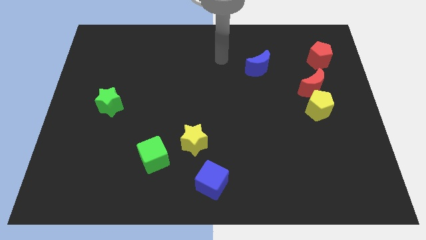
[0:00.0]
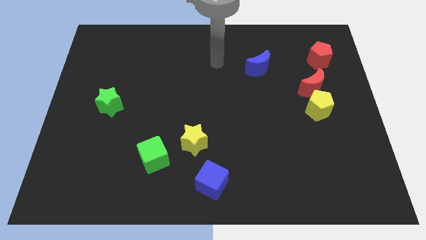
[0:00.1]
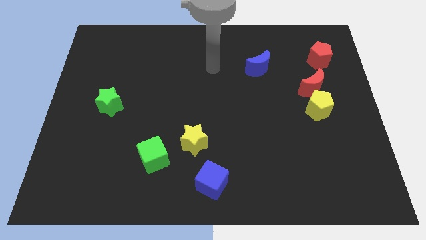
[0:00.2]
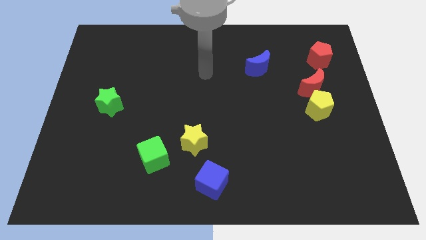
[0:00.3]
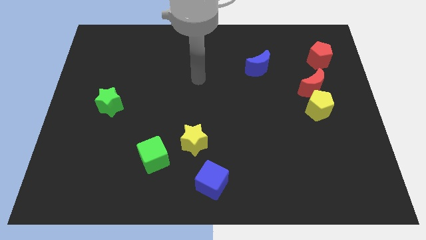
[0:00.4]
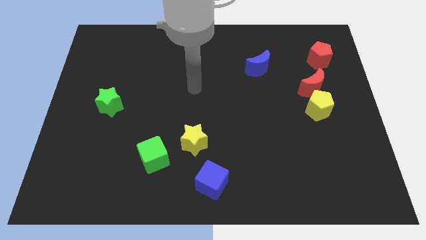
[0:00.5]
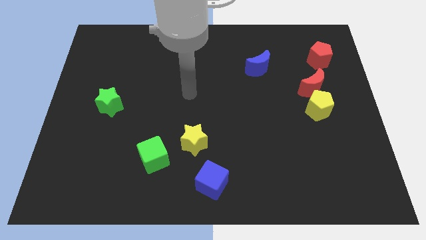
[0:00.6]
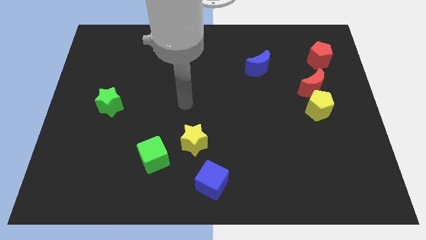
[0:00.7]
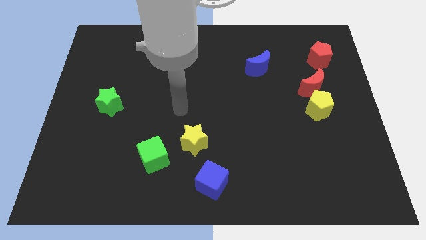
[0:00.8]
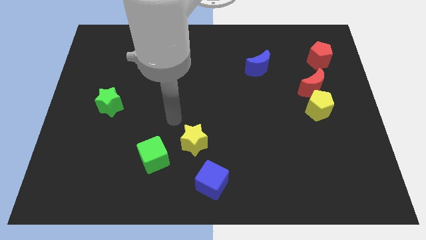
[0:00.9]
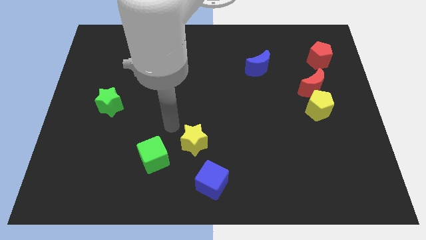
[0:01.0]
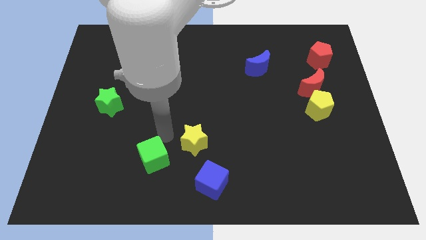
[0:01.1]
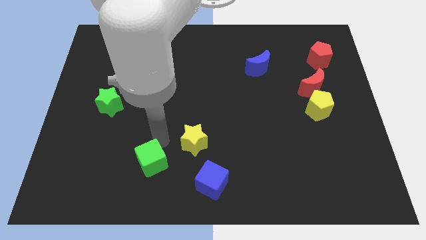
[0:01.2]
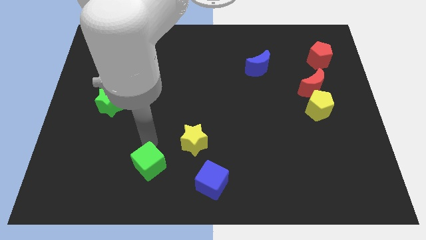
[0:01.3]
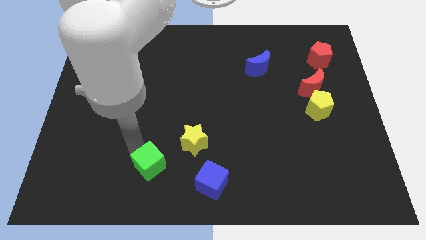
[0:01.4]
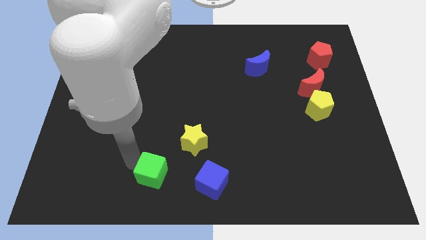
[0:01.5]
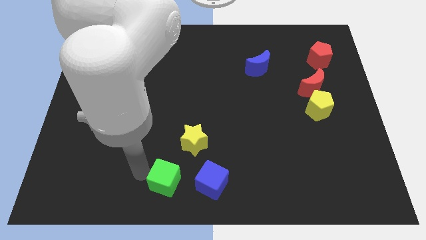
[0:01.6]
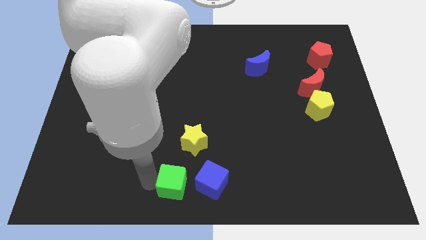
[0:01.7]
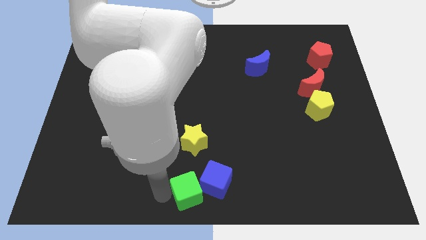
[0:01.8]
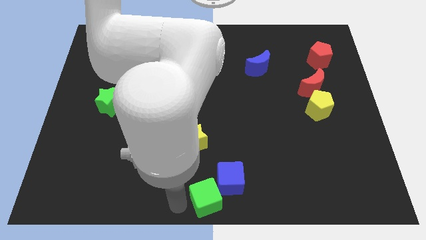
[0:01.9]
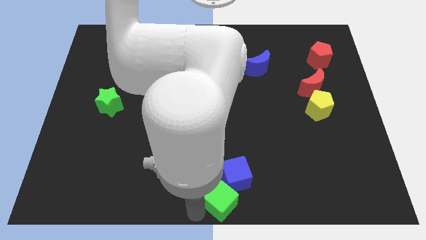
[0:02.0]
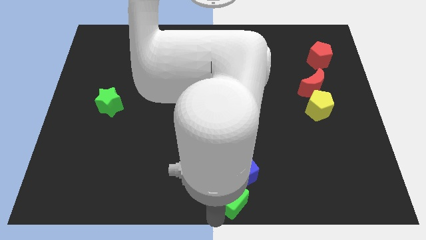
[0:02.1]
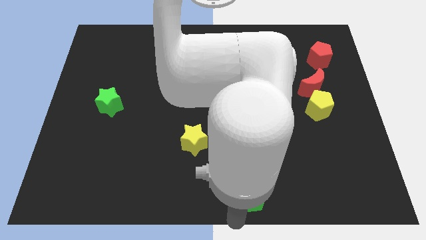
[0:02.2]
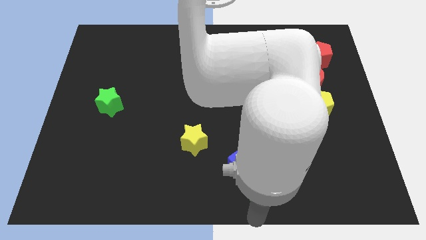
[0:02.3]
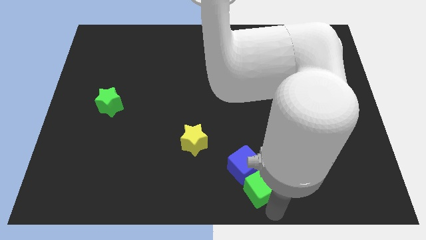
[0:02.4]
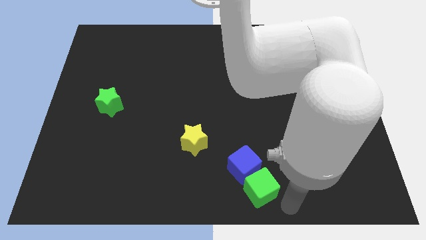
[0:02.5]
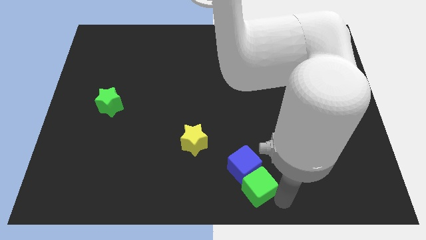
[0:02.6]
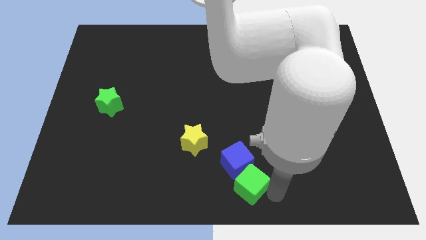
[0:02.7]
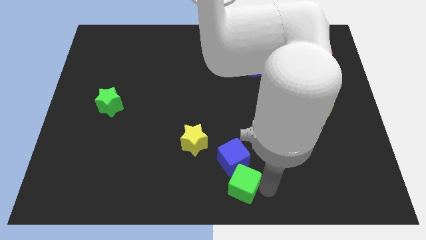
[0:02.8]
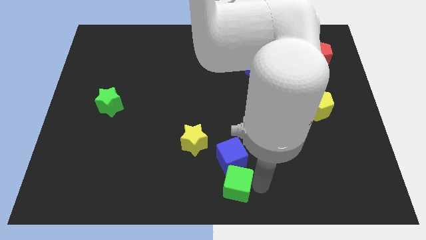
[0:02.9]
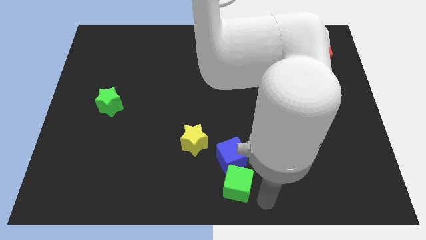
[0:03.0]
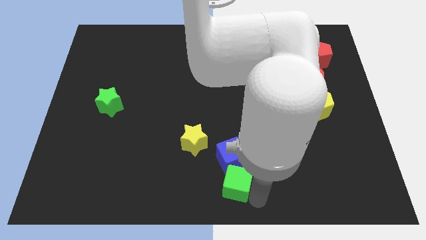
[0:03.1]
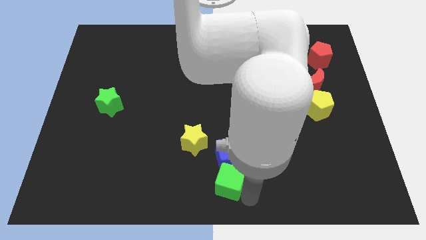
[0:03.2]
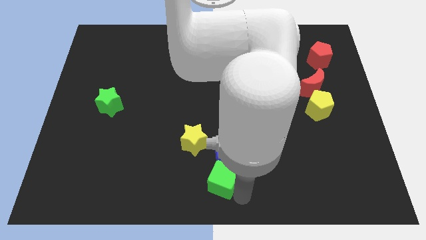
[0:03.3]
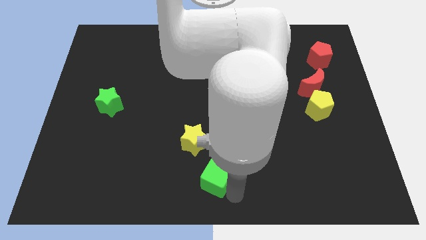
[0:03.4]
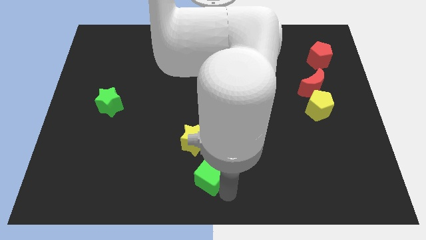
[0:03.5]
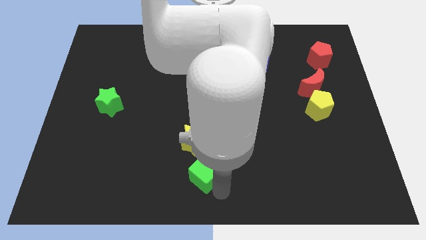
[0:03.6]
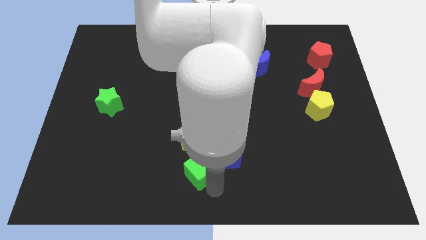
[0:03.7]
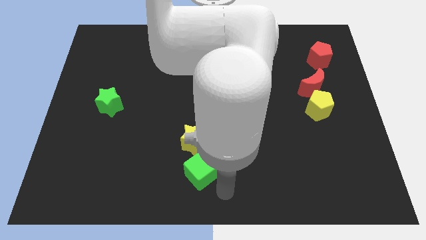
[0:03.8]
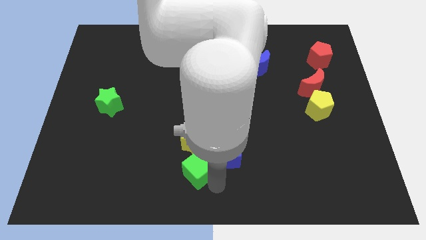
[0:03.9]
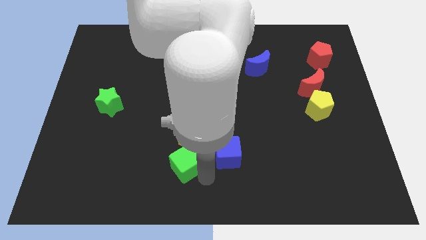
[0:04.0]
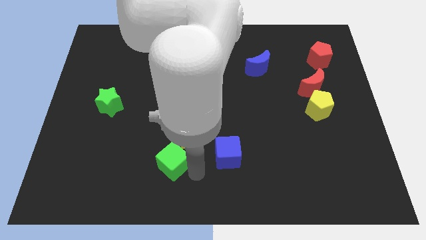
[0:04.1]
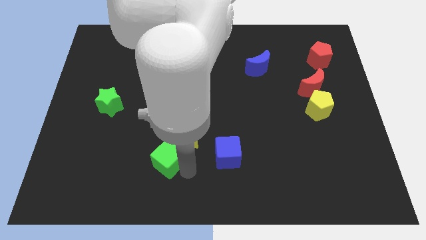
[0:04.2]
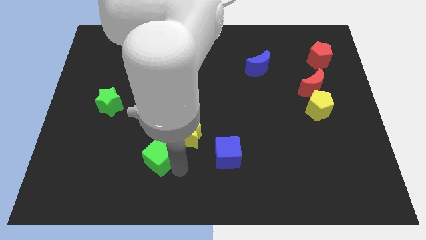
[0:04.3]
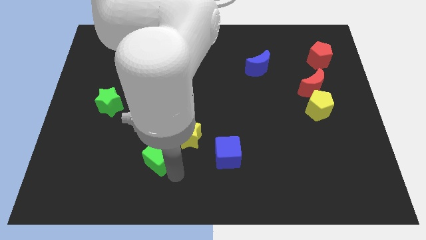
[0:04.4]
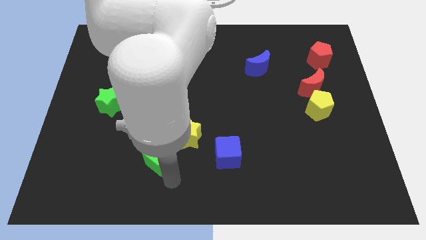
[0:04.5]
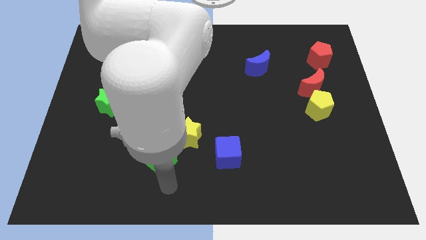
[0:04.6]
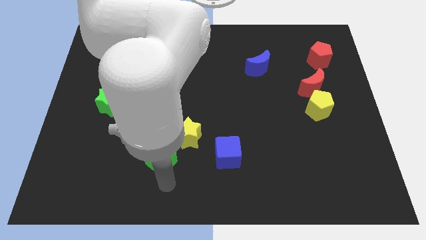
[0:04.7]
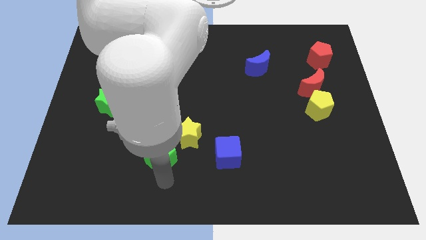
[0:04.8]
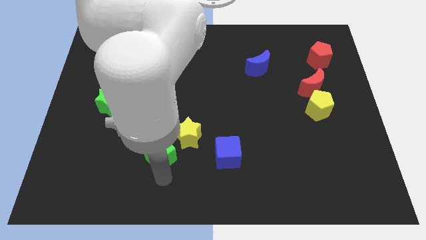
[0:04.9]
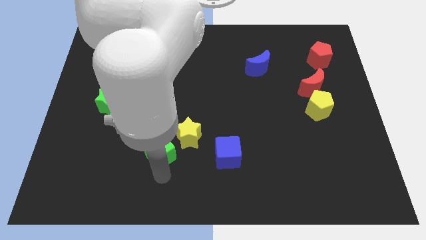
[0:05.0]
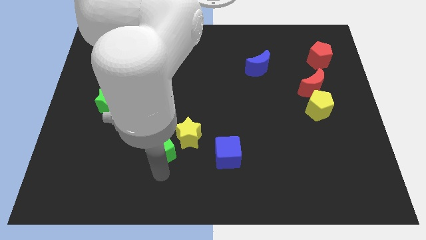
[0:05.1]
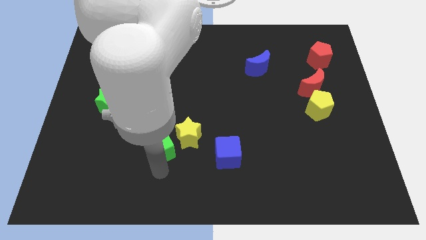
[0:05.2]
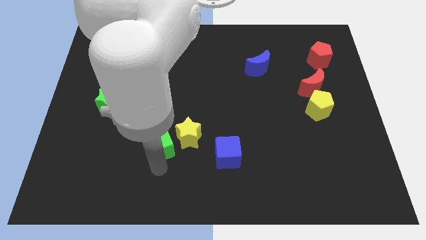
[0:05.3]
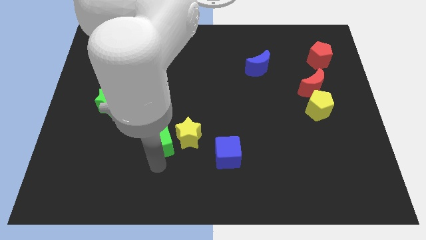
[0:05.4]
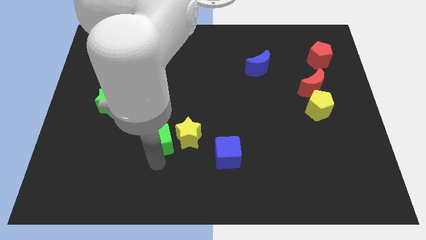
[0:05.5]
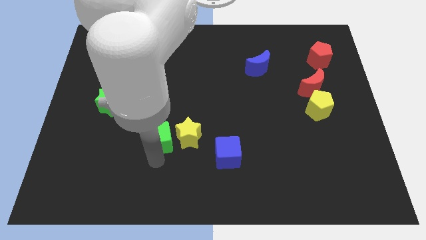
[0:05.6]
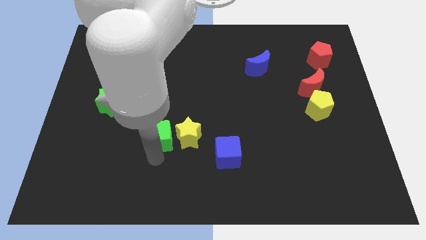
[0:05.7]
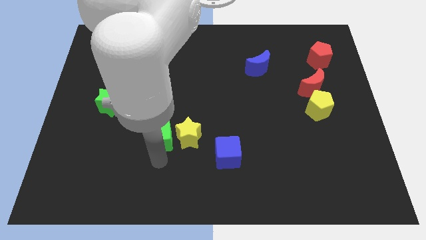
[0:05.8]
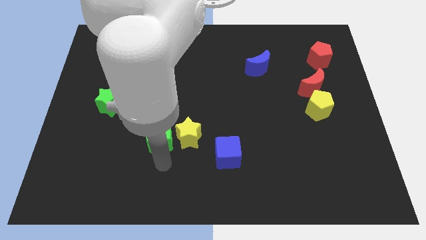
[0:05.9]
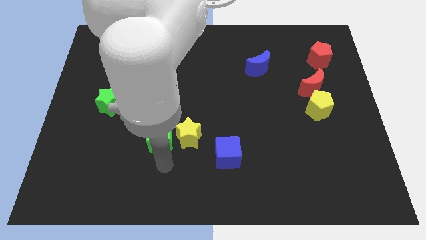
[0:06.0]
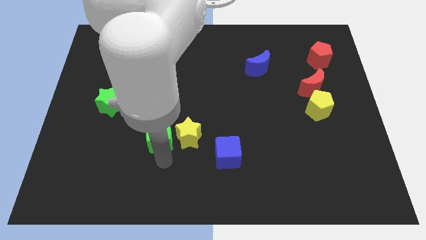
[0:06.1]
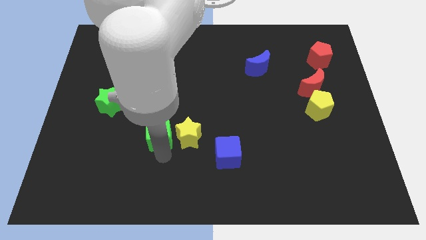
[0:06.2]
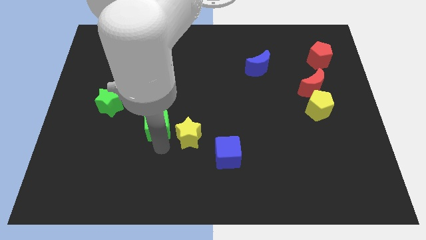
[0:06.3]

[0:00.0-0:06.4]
slide the green cube a little upwards

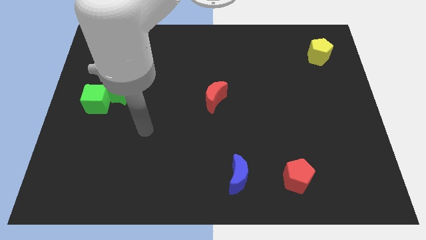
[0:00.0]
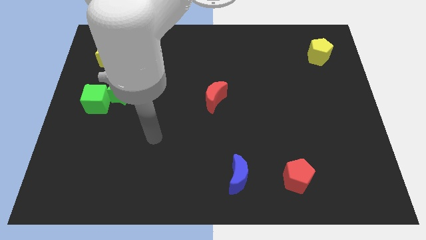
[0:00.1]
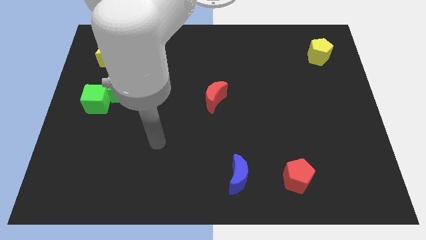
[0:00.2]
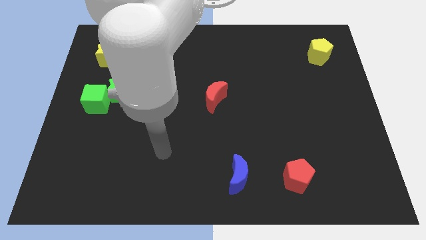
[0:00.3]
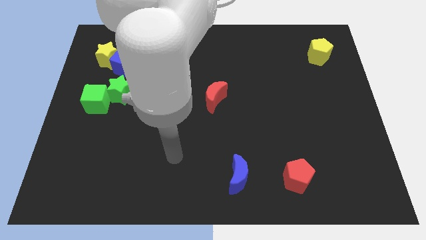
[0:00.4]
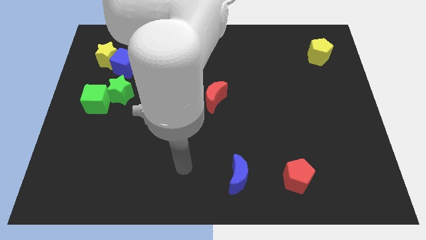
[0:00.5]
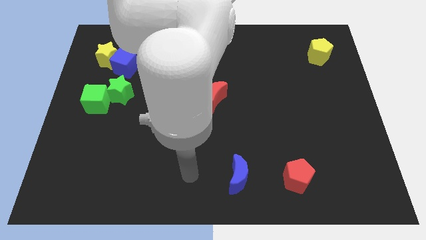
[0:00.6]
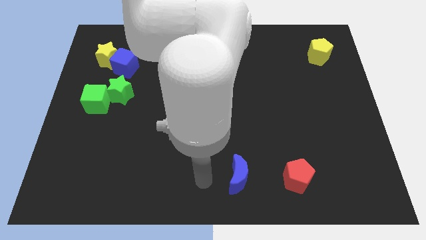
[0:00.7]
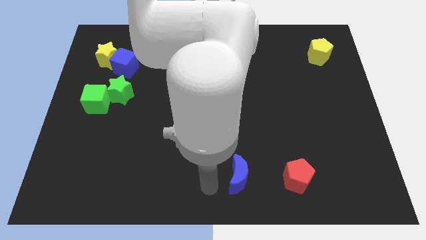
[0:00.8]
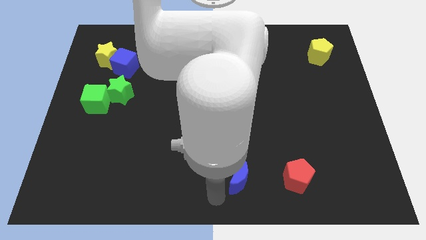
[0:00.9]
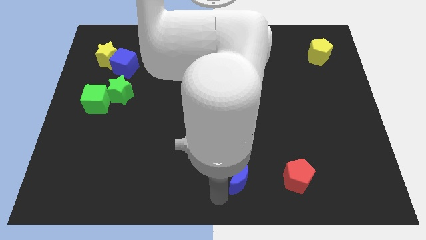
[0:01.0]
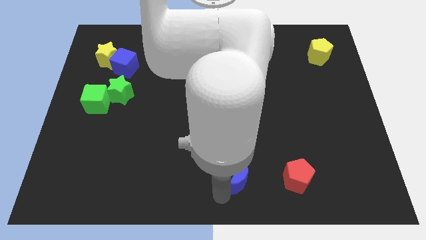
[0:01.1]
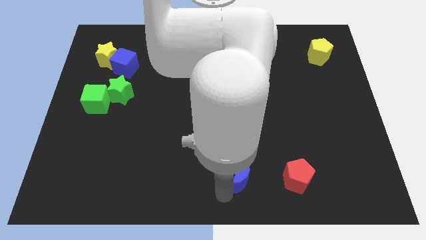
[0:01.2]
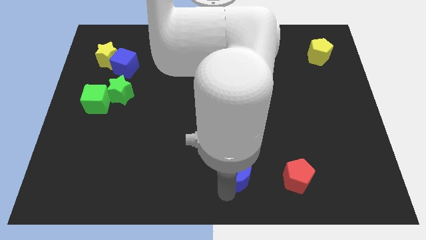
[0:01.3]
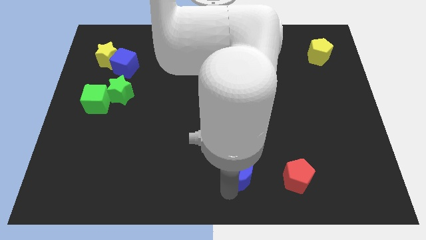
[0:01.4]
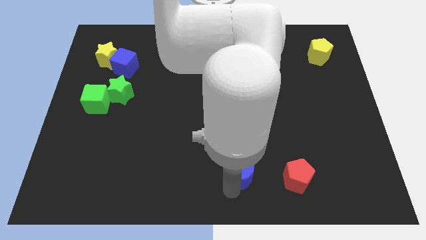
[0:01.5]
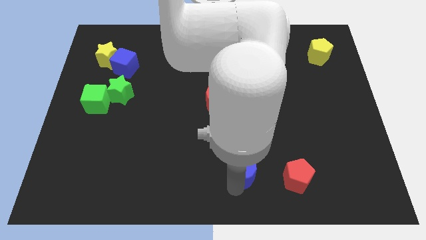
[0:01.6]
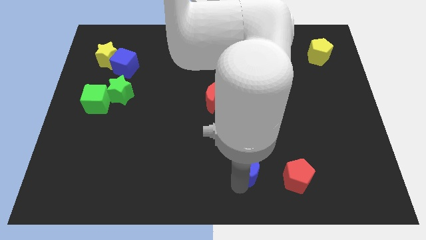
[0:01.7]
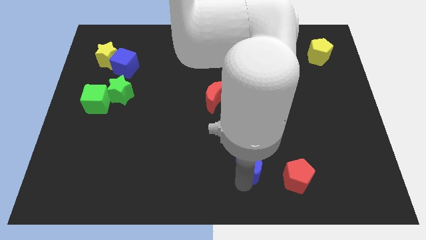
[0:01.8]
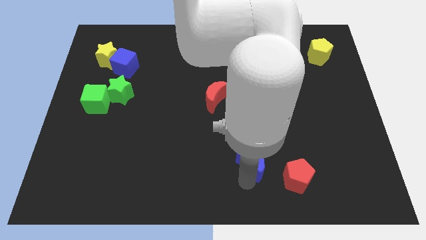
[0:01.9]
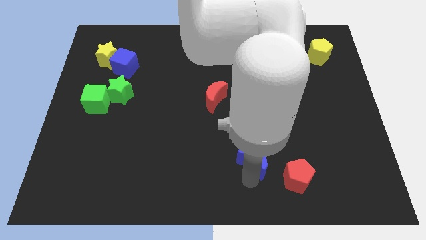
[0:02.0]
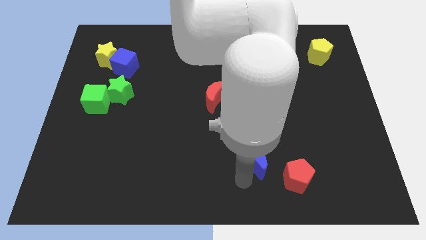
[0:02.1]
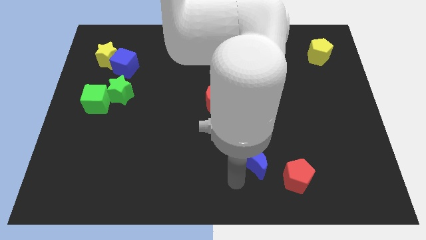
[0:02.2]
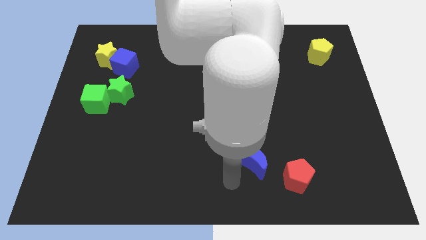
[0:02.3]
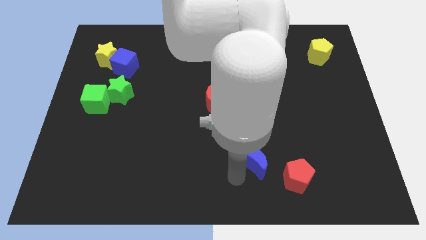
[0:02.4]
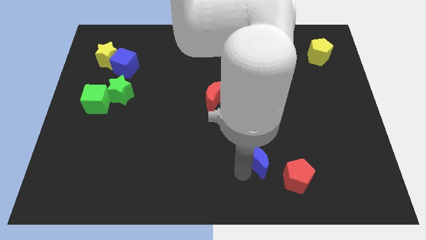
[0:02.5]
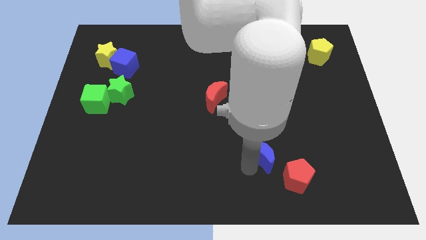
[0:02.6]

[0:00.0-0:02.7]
slightly slide the blue moon up and to the right
